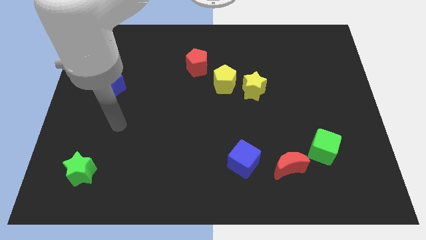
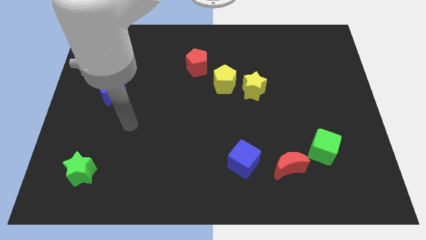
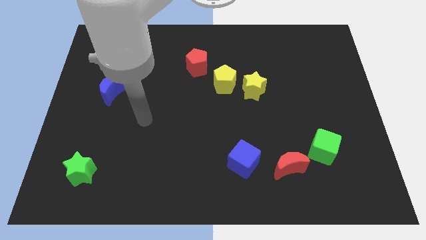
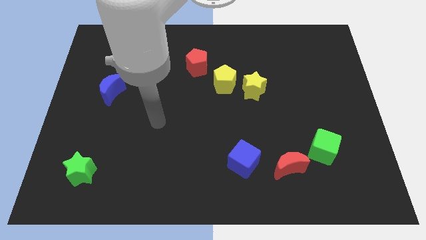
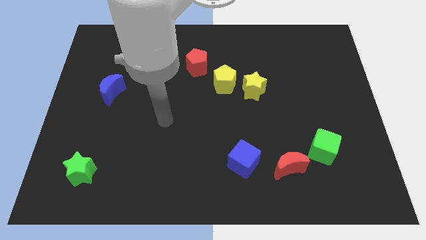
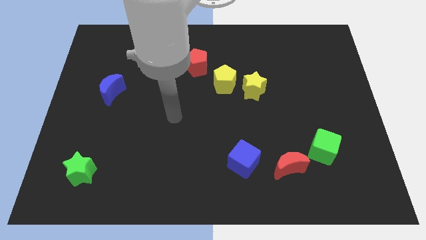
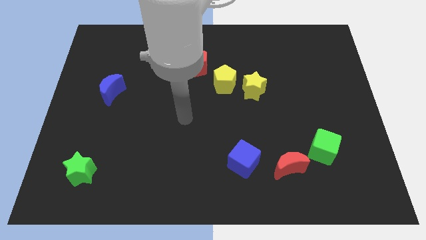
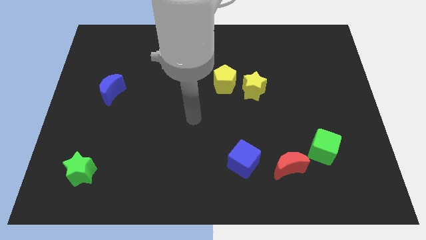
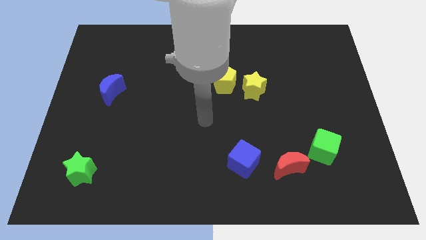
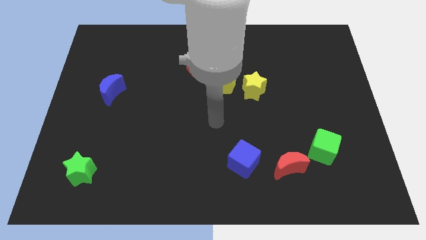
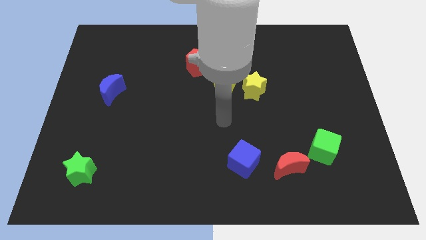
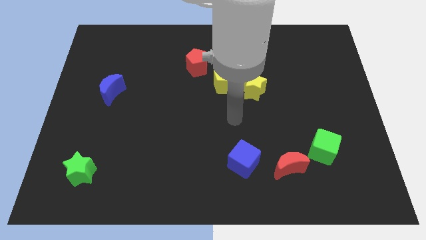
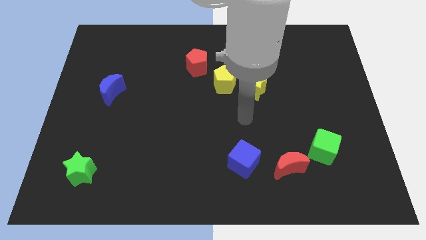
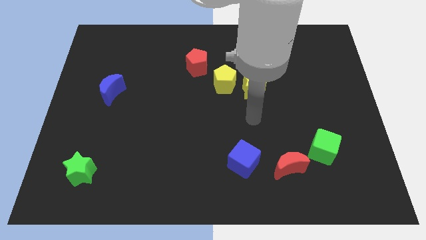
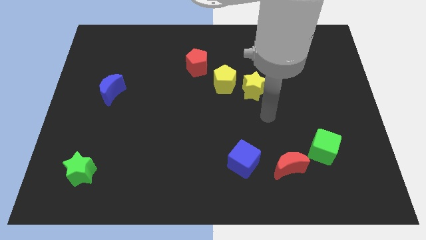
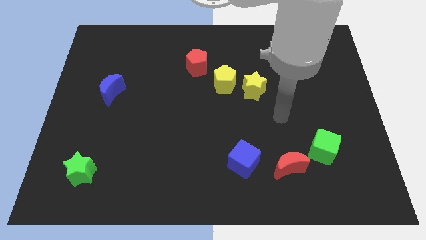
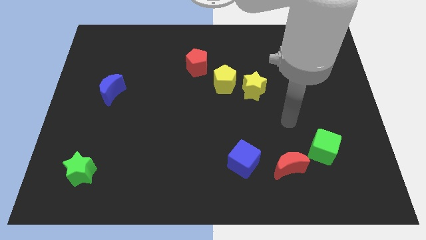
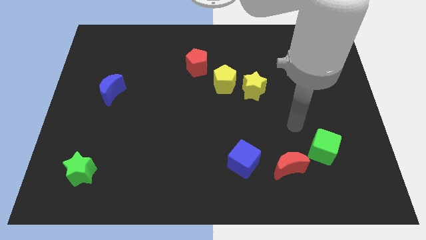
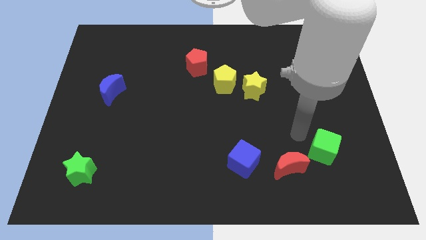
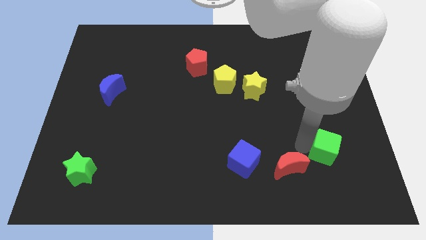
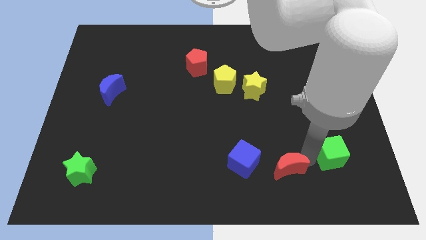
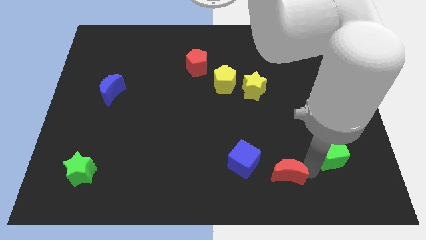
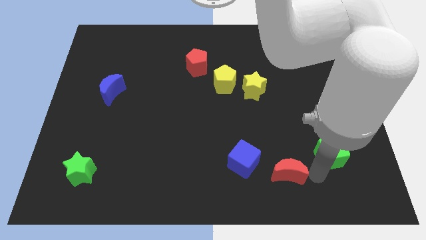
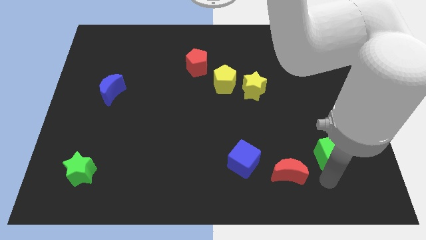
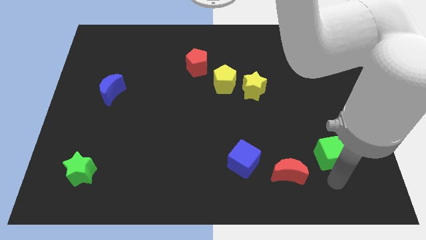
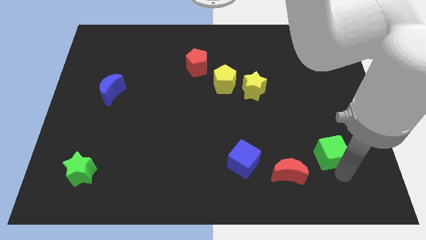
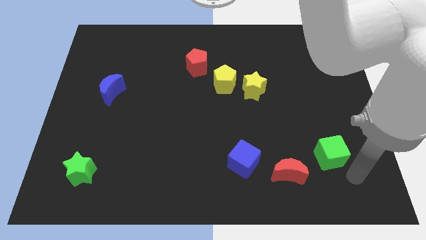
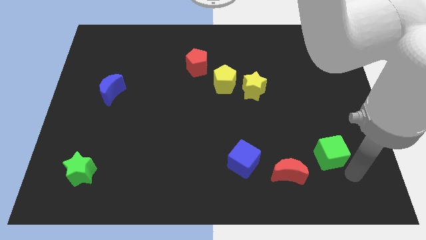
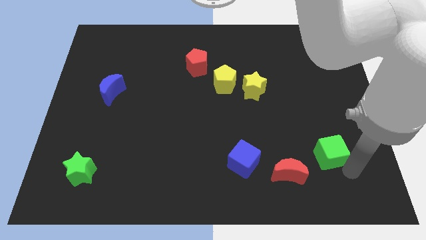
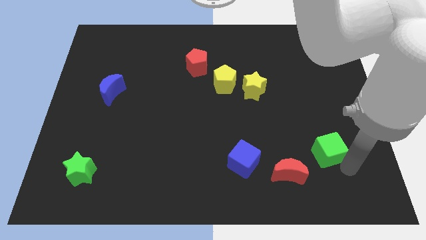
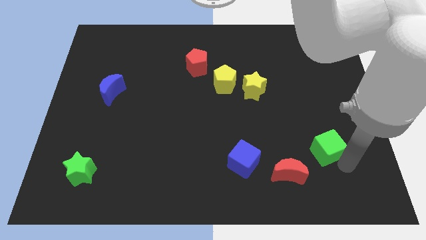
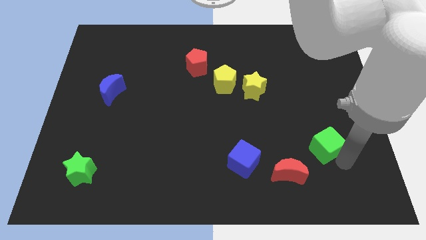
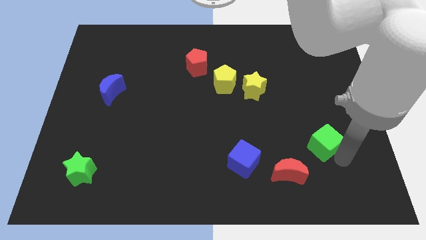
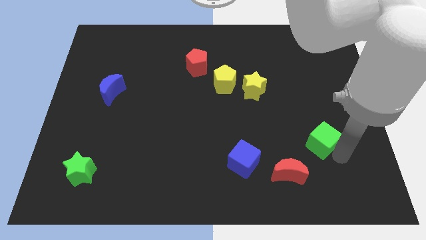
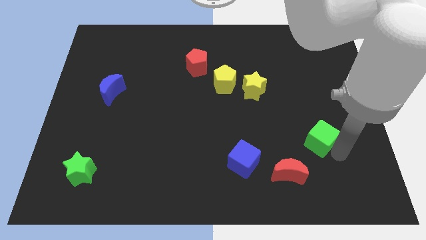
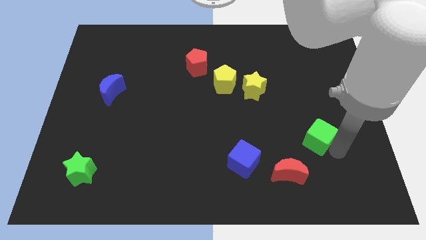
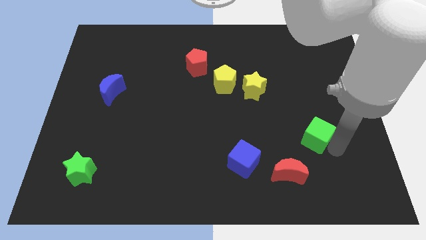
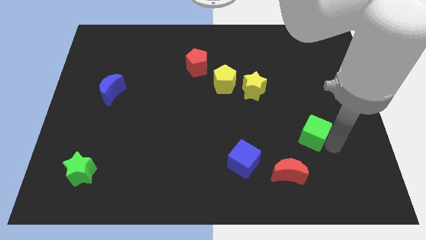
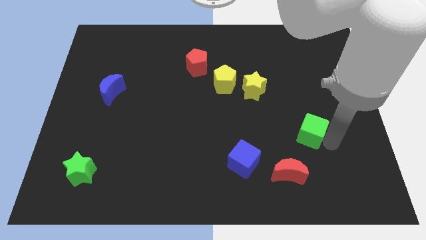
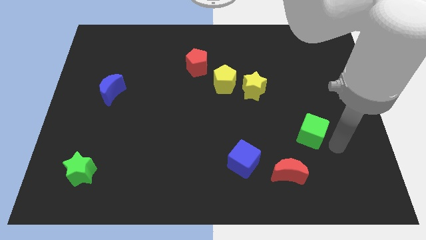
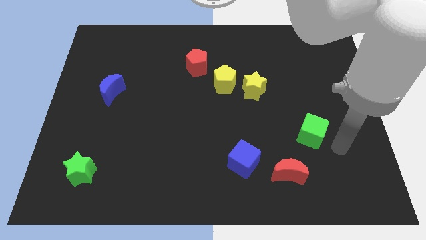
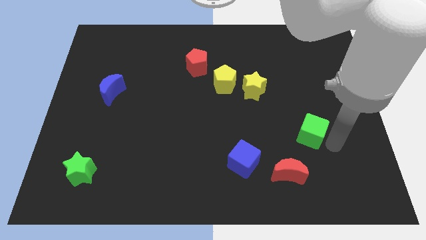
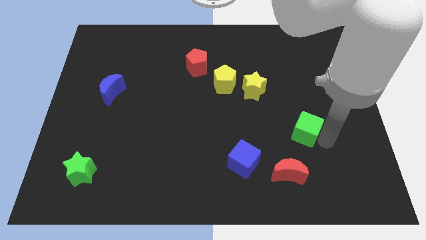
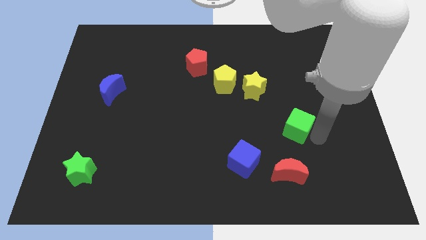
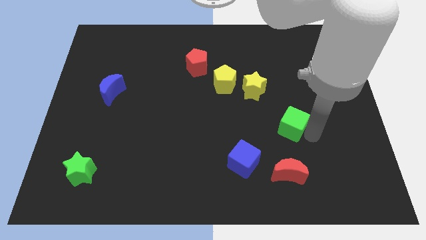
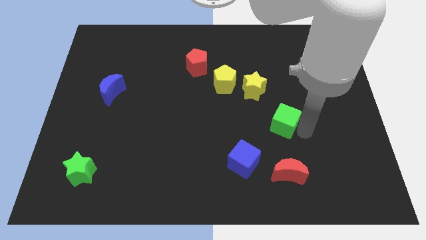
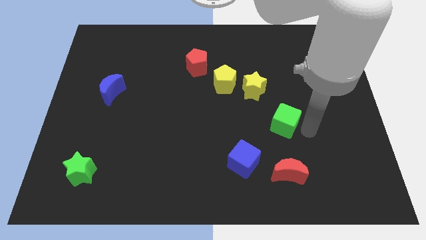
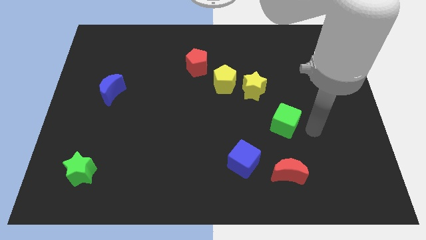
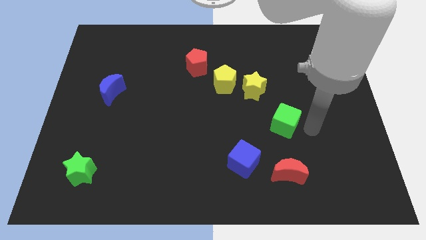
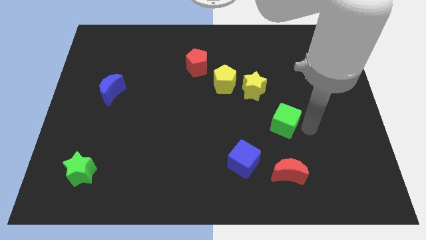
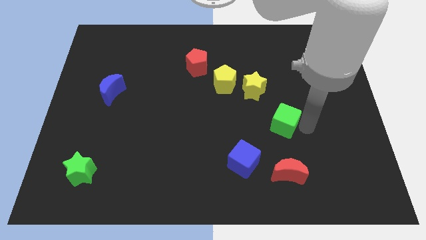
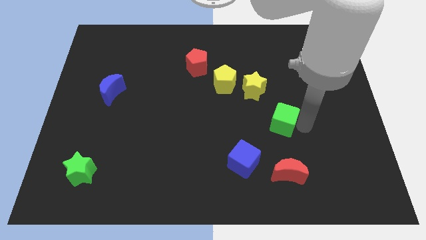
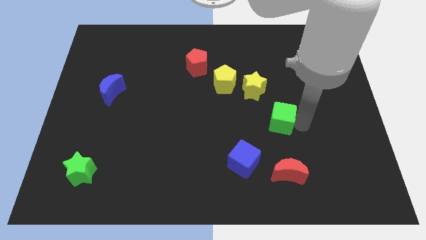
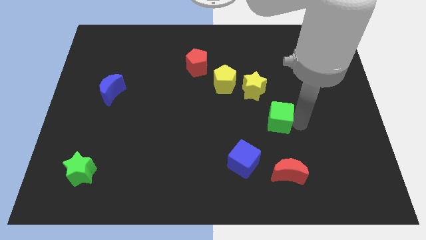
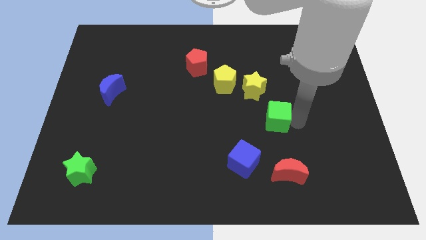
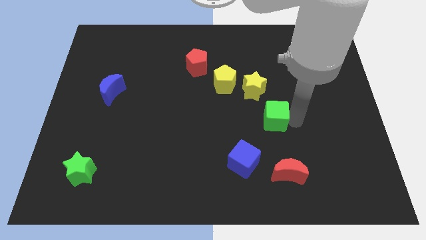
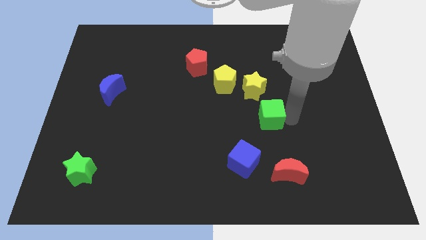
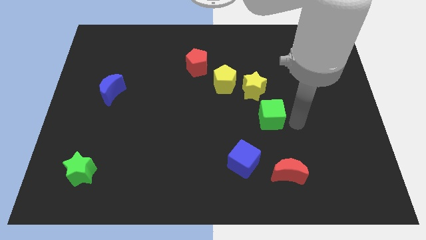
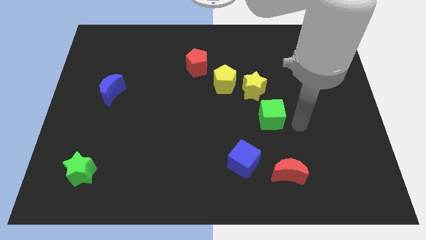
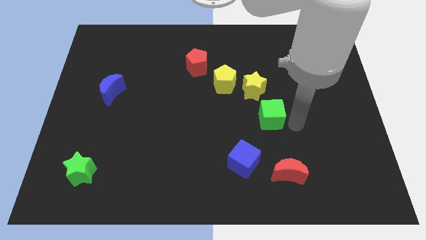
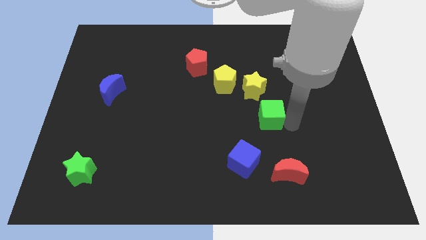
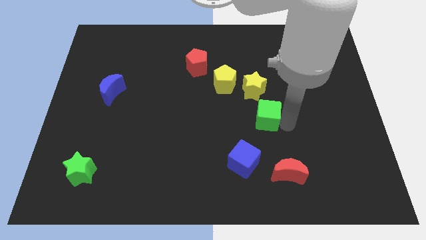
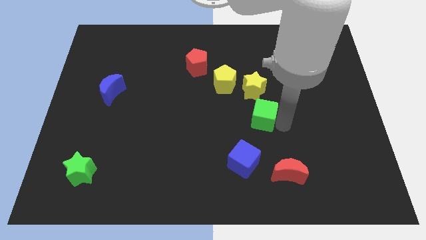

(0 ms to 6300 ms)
move the green cube to the middle of the board

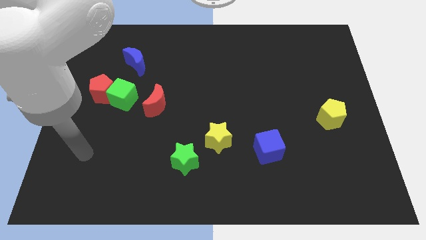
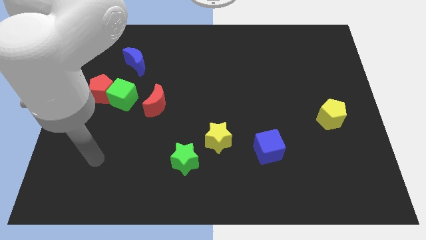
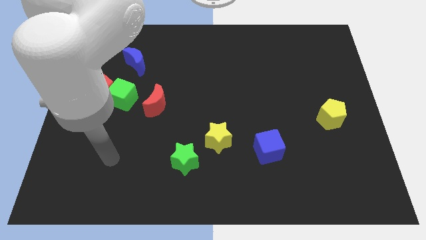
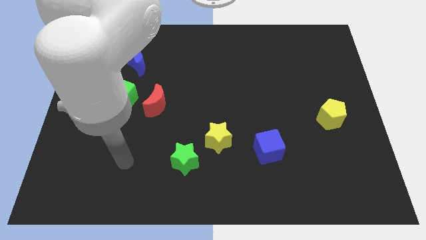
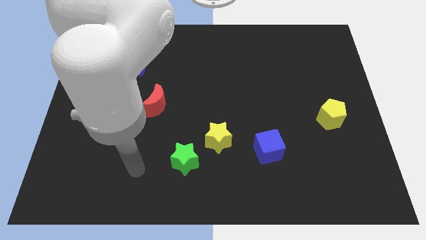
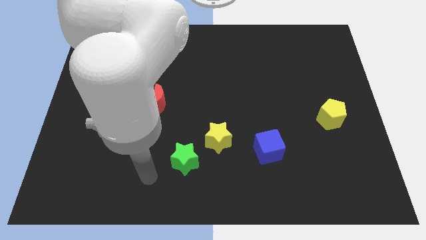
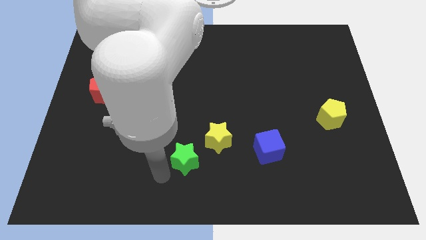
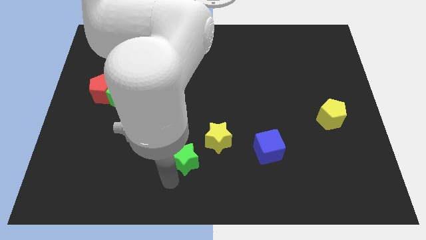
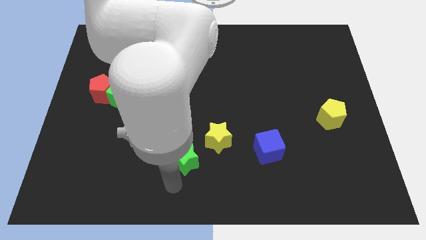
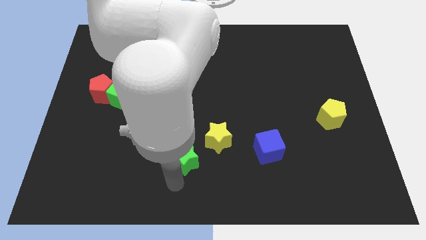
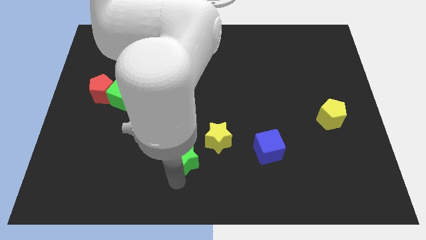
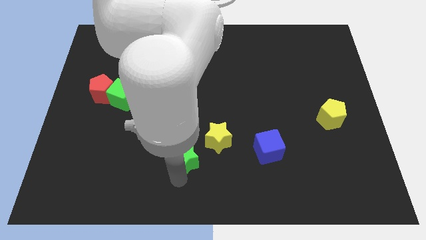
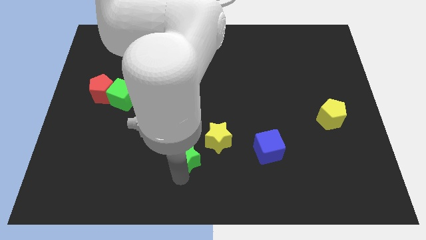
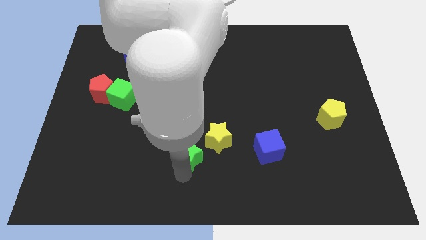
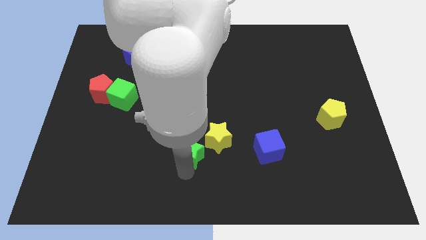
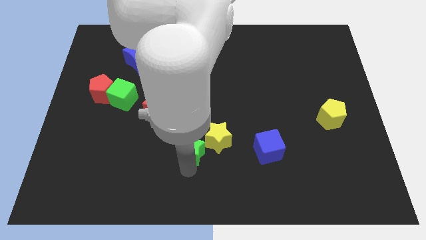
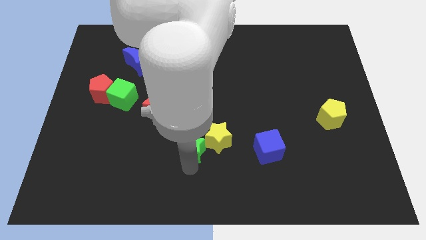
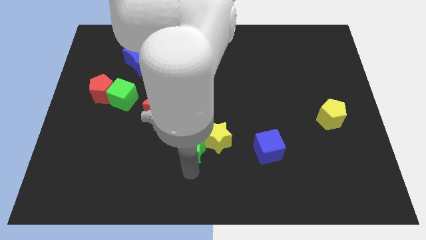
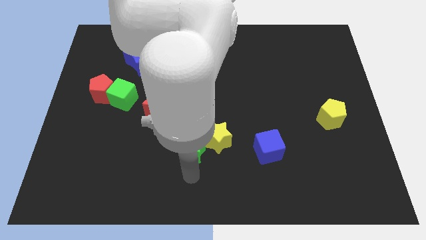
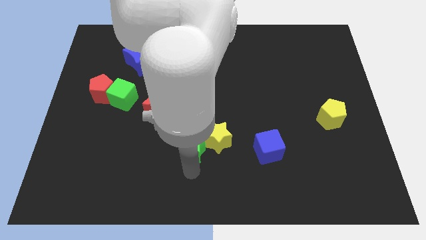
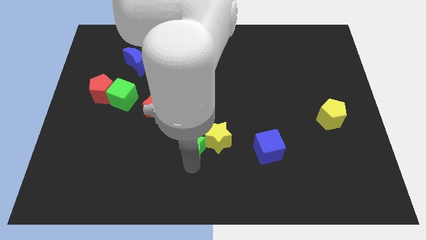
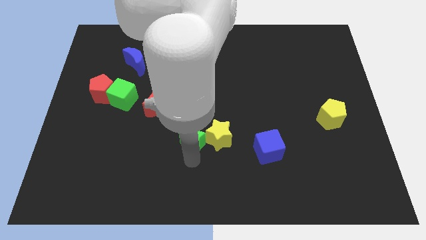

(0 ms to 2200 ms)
push the green star to the middle
